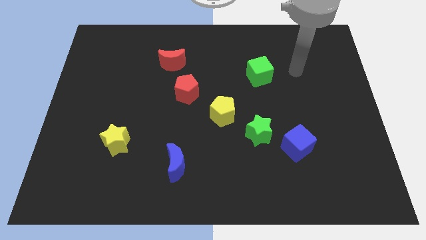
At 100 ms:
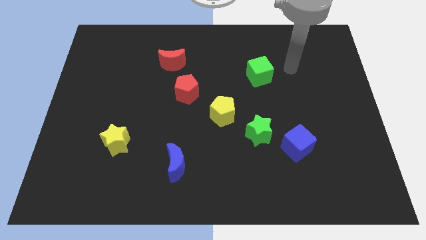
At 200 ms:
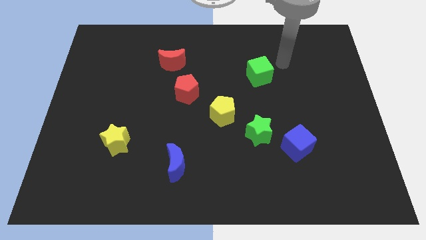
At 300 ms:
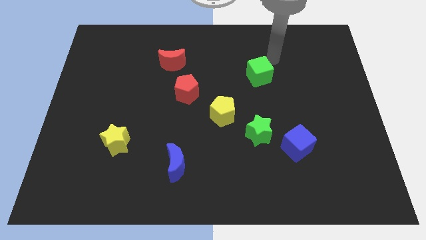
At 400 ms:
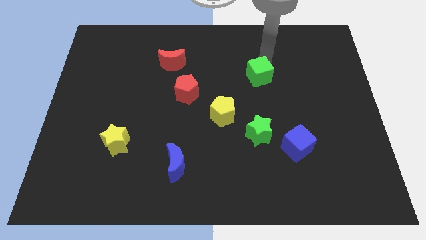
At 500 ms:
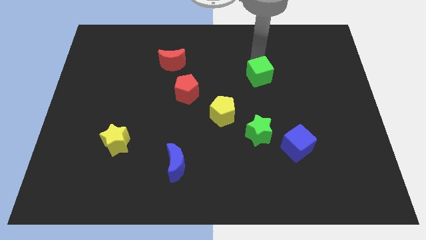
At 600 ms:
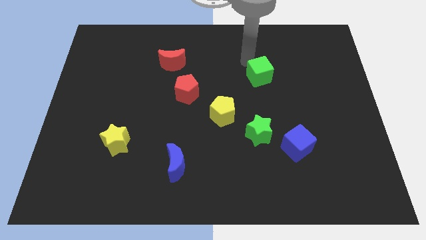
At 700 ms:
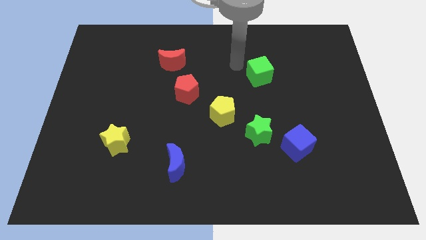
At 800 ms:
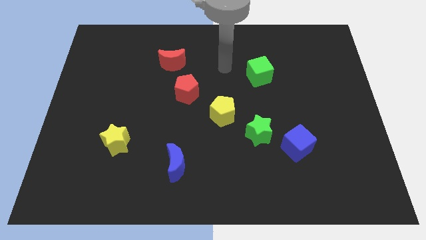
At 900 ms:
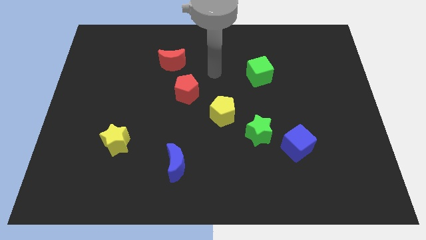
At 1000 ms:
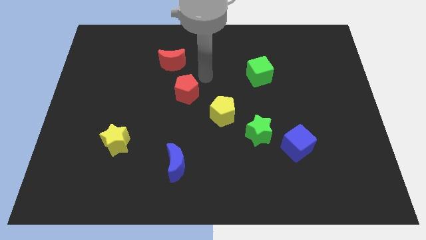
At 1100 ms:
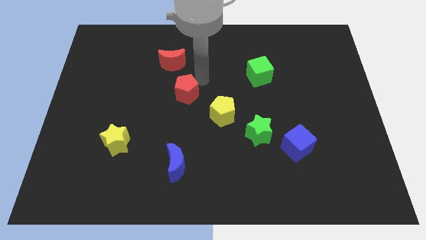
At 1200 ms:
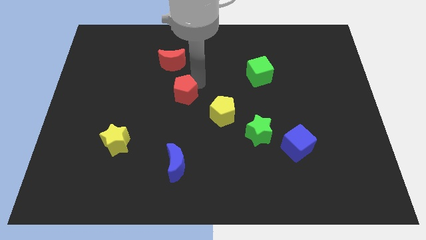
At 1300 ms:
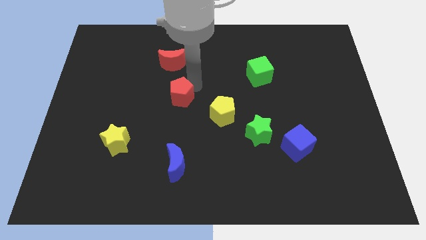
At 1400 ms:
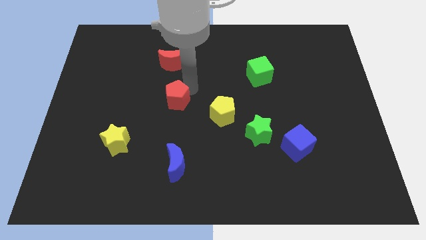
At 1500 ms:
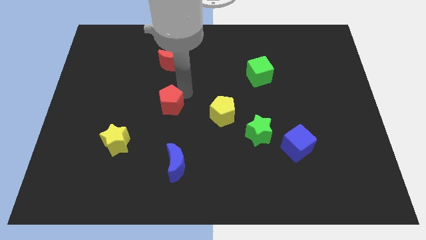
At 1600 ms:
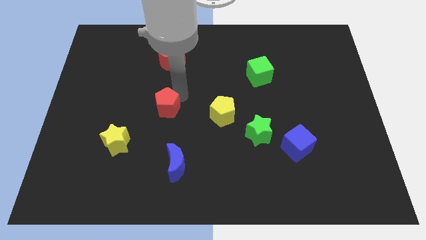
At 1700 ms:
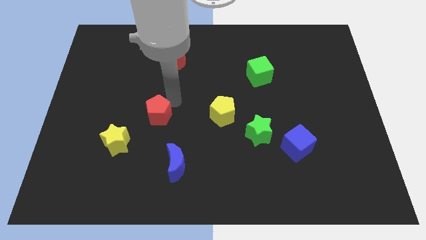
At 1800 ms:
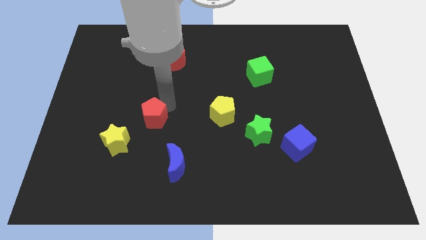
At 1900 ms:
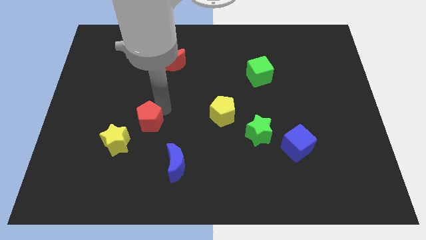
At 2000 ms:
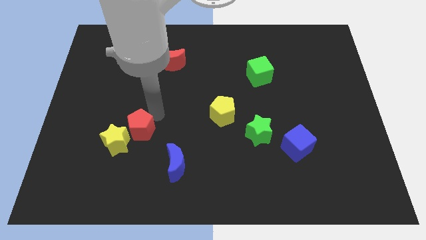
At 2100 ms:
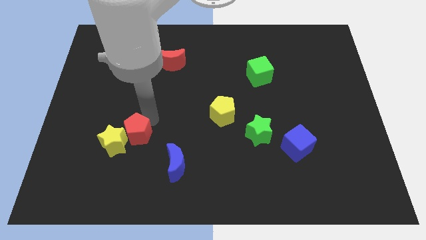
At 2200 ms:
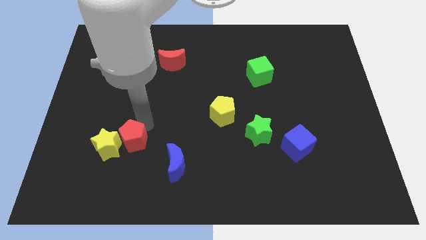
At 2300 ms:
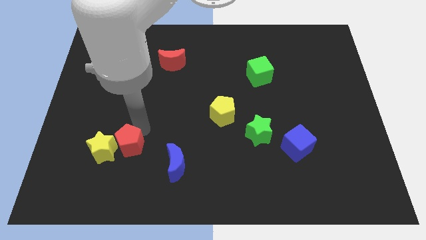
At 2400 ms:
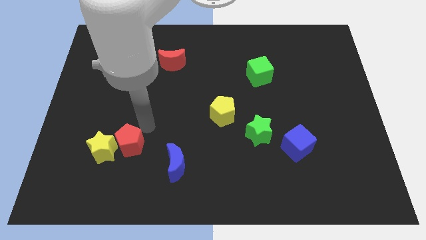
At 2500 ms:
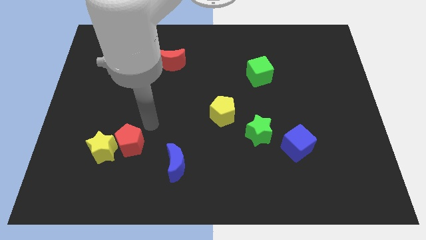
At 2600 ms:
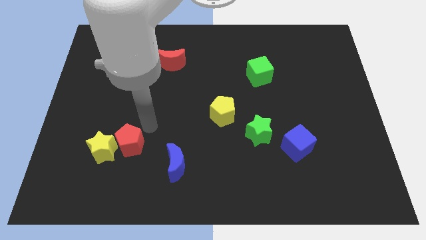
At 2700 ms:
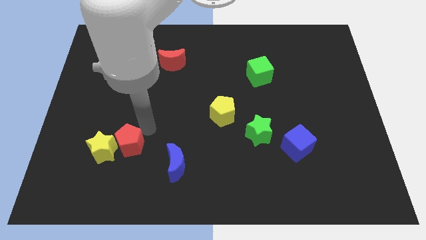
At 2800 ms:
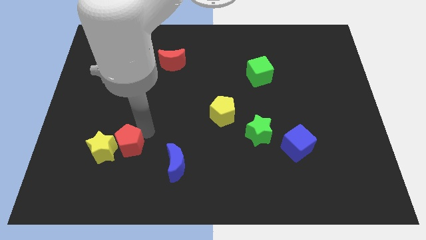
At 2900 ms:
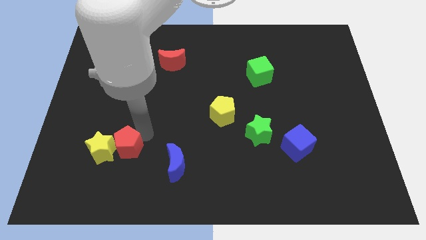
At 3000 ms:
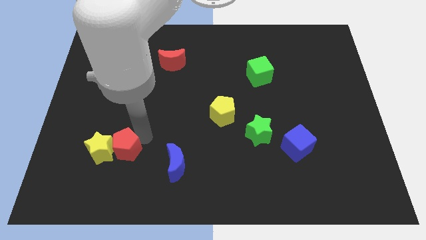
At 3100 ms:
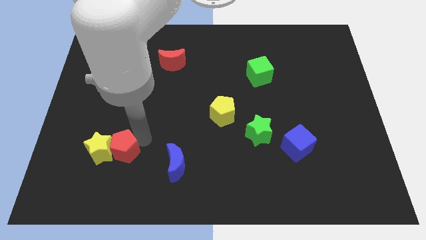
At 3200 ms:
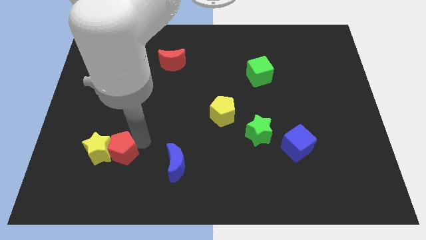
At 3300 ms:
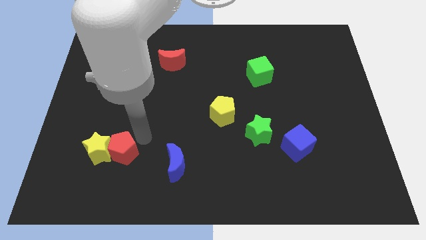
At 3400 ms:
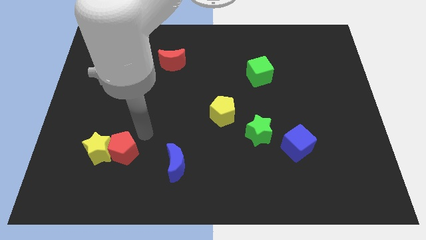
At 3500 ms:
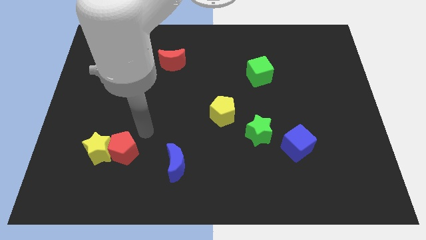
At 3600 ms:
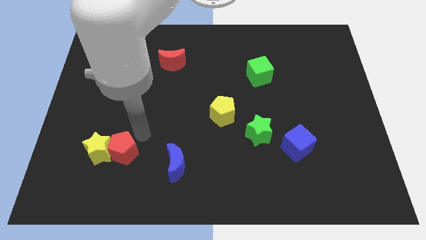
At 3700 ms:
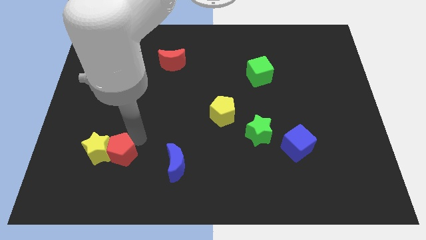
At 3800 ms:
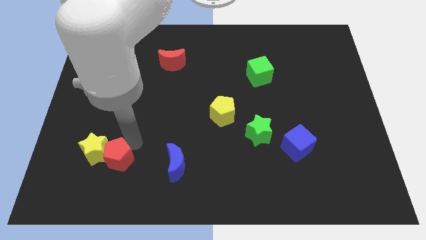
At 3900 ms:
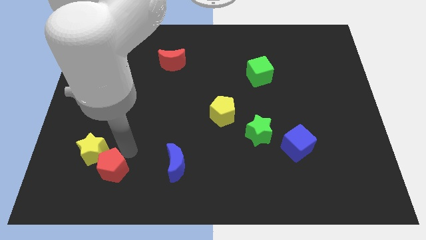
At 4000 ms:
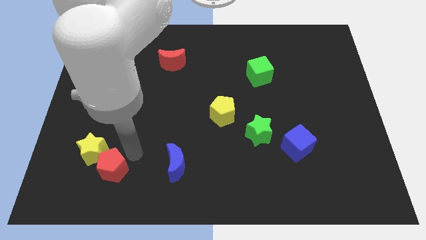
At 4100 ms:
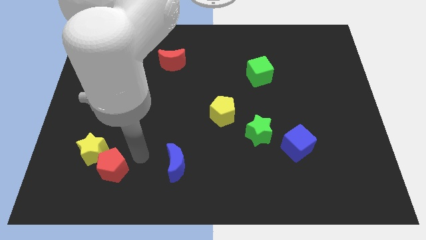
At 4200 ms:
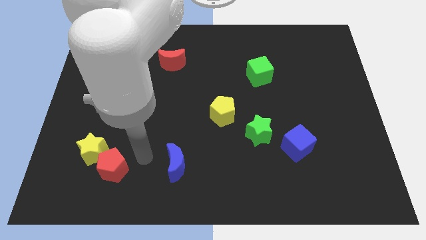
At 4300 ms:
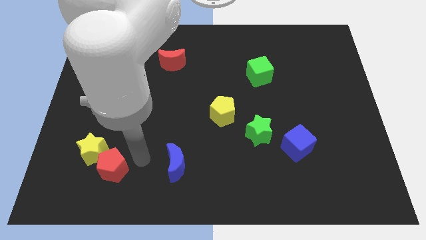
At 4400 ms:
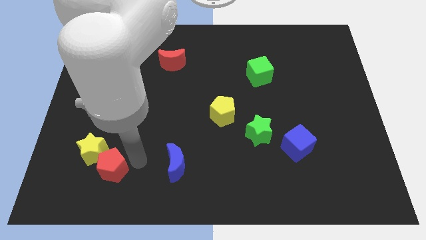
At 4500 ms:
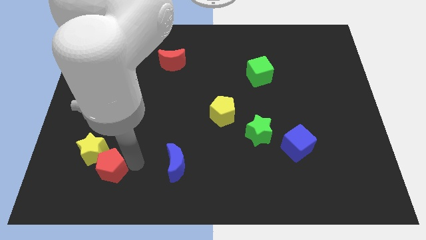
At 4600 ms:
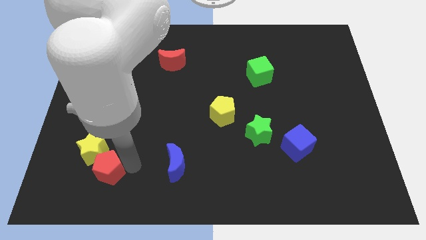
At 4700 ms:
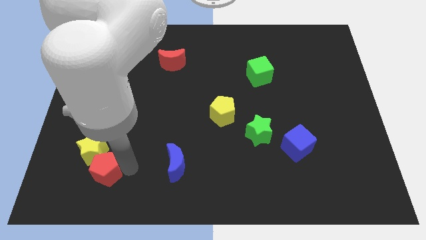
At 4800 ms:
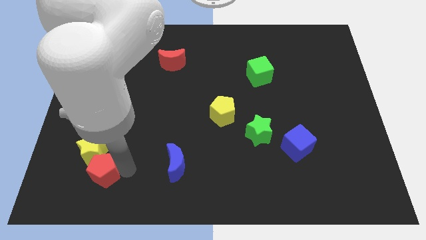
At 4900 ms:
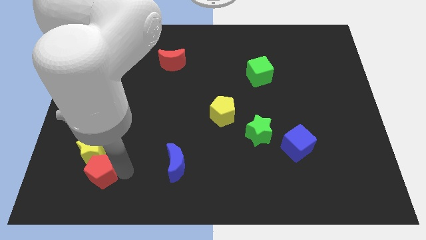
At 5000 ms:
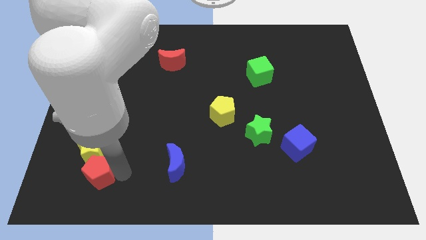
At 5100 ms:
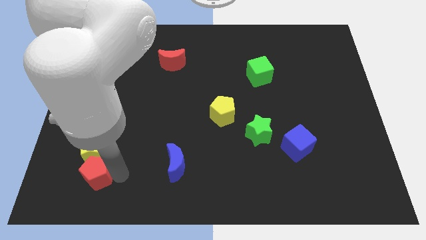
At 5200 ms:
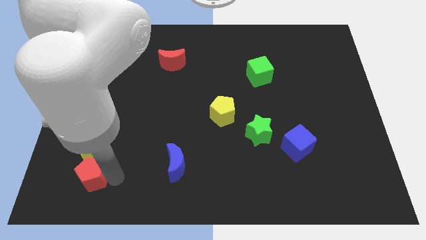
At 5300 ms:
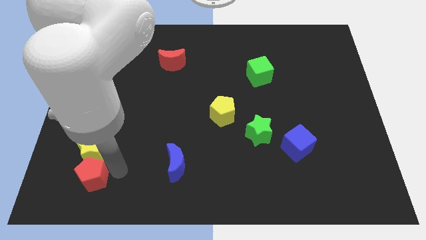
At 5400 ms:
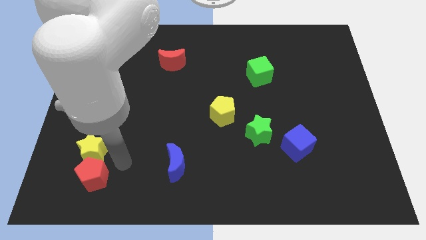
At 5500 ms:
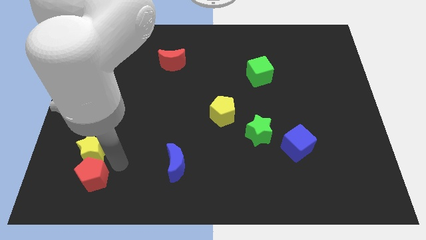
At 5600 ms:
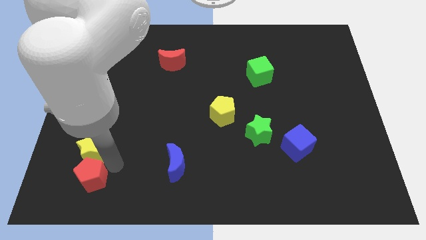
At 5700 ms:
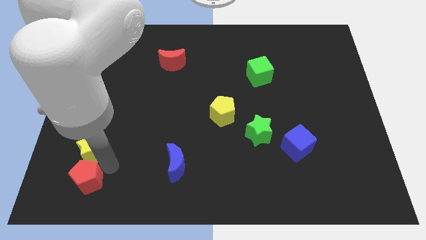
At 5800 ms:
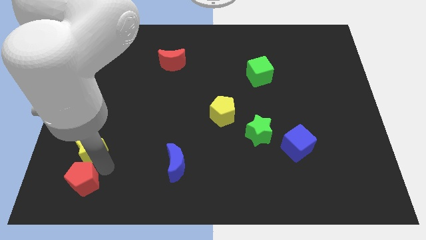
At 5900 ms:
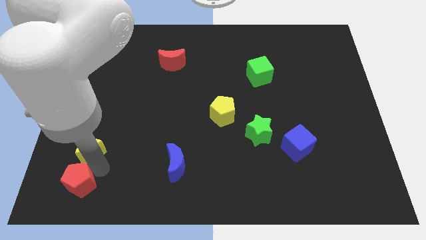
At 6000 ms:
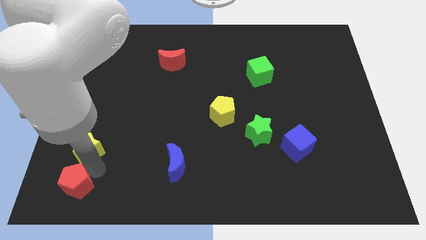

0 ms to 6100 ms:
slide the red pentagon to the bottom left of the board
